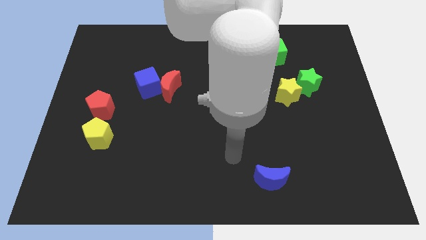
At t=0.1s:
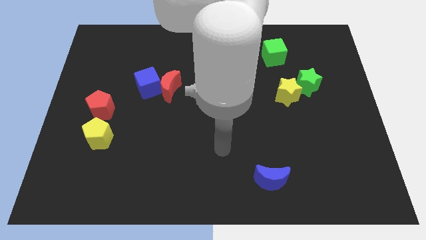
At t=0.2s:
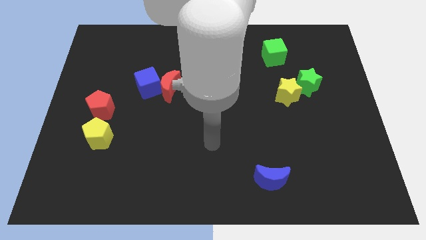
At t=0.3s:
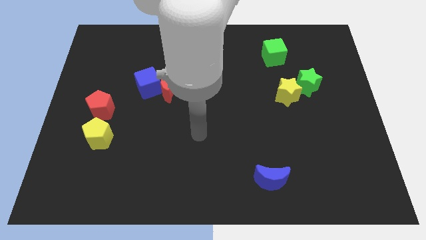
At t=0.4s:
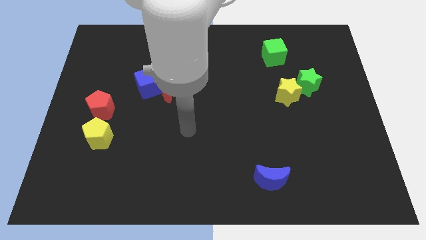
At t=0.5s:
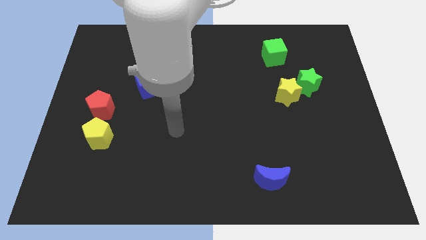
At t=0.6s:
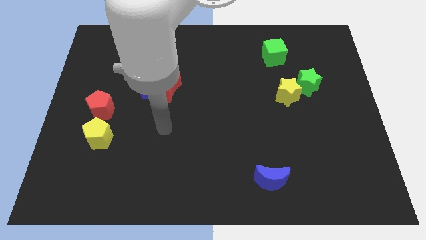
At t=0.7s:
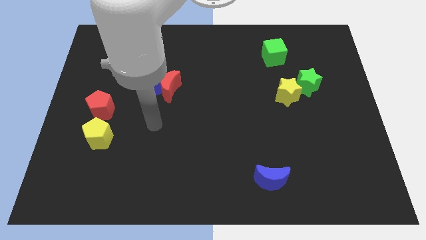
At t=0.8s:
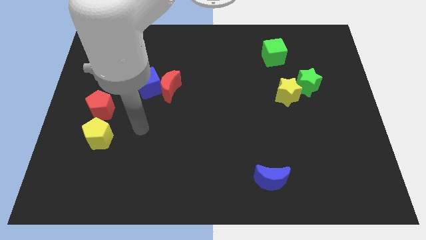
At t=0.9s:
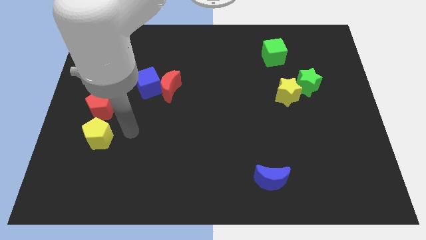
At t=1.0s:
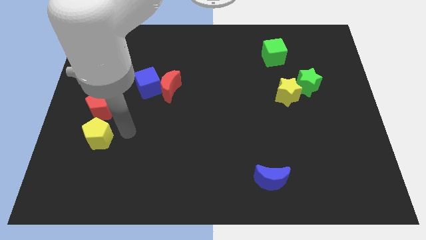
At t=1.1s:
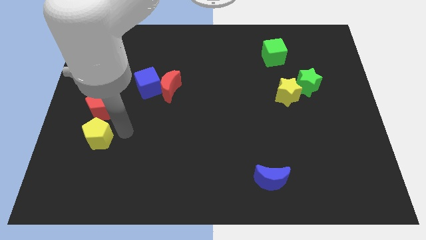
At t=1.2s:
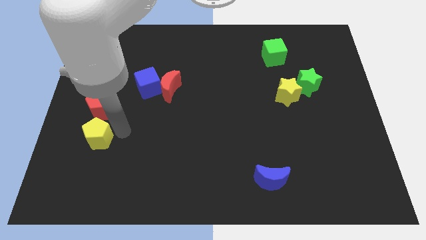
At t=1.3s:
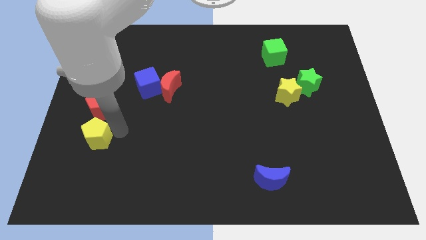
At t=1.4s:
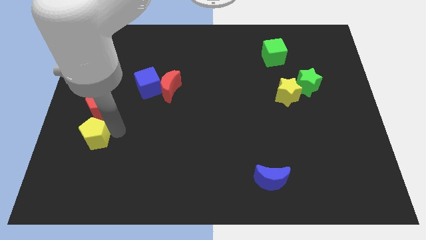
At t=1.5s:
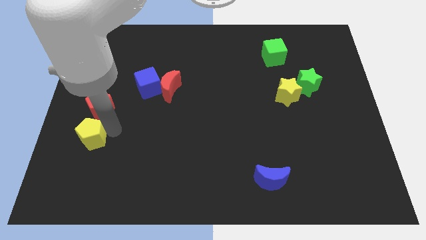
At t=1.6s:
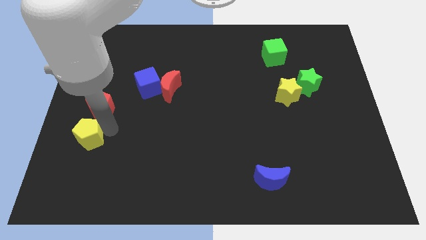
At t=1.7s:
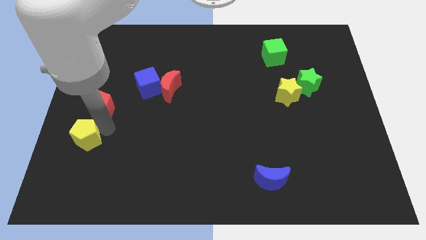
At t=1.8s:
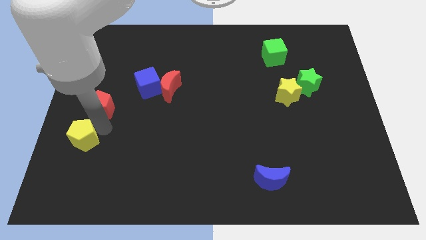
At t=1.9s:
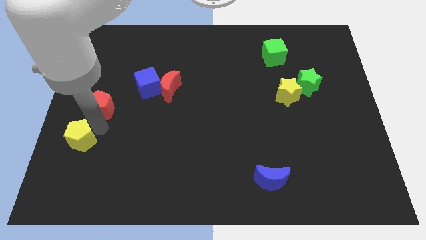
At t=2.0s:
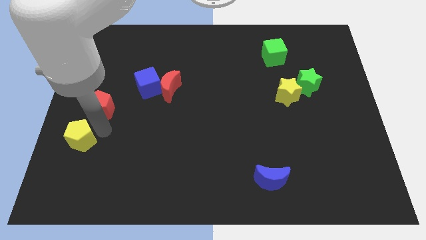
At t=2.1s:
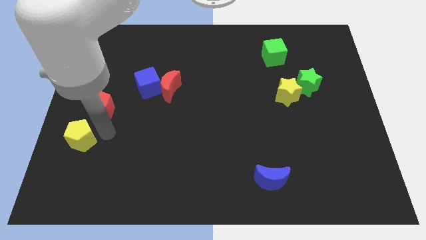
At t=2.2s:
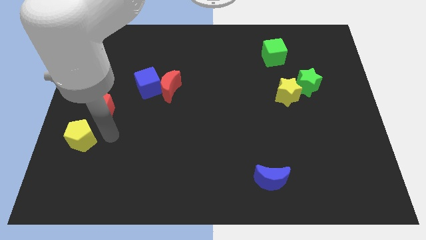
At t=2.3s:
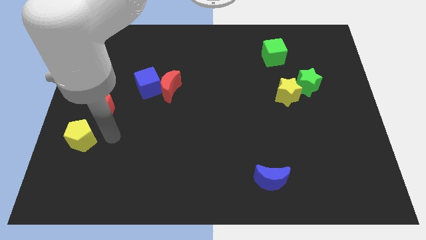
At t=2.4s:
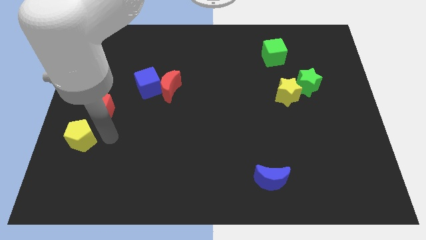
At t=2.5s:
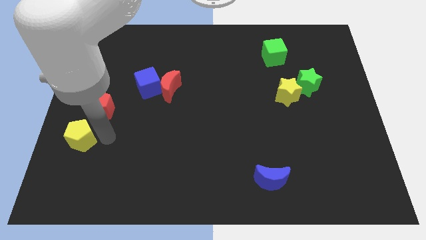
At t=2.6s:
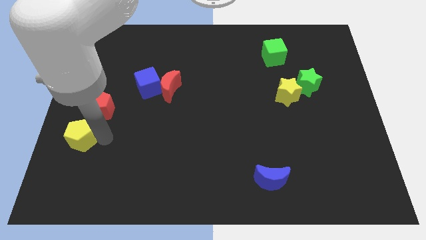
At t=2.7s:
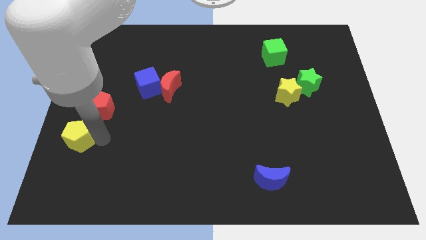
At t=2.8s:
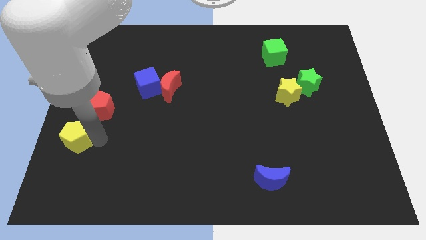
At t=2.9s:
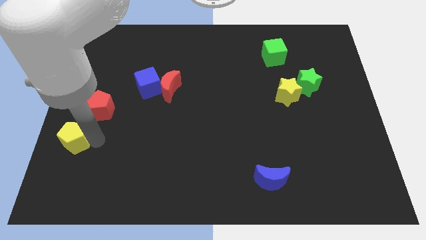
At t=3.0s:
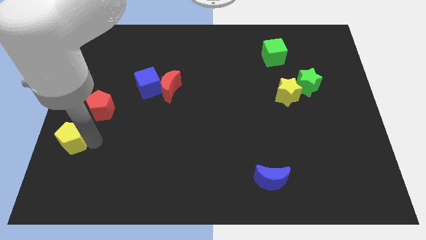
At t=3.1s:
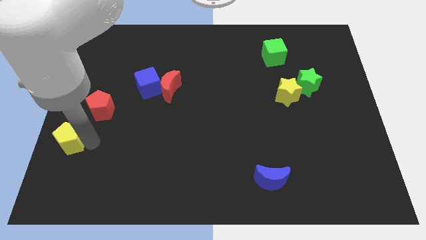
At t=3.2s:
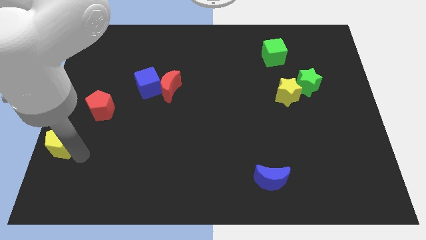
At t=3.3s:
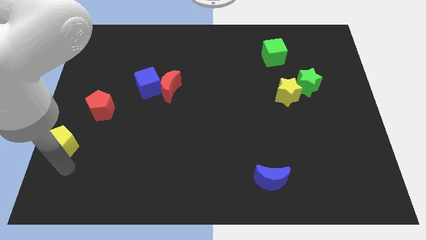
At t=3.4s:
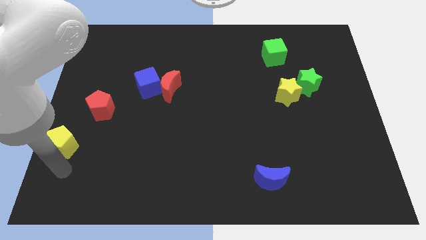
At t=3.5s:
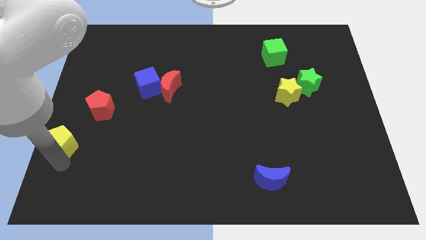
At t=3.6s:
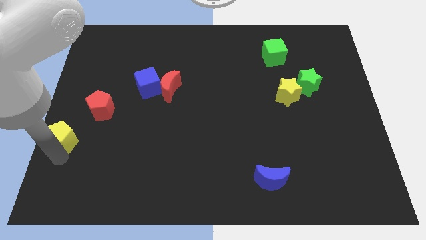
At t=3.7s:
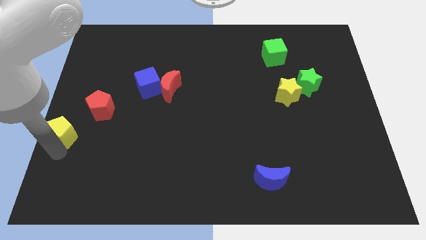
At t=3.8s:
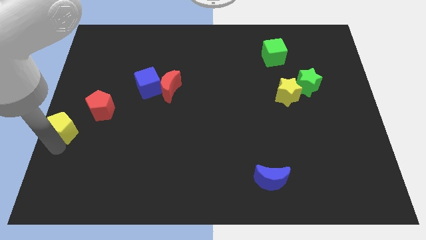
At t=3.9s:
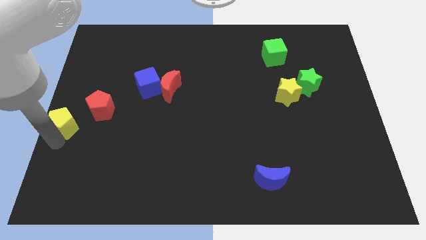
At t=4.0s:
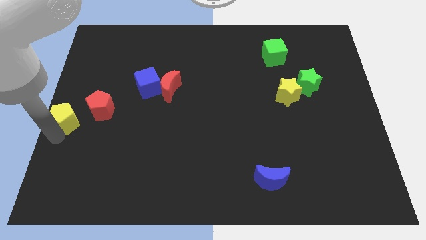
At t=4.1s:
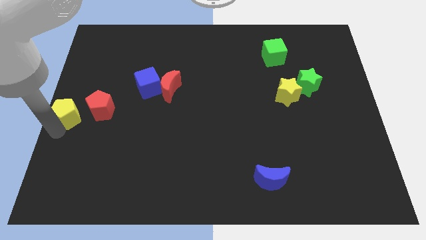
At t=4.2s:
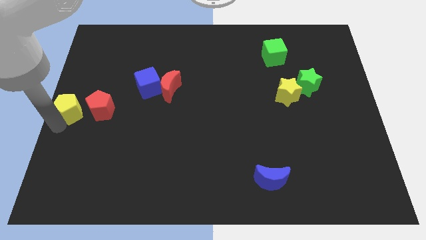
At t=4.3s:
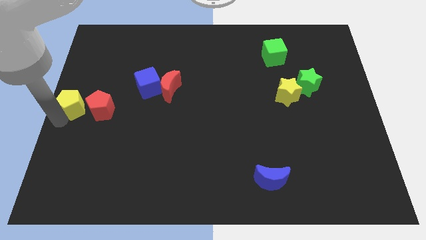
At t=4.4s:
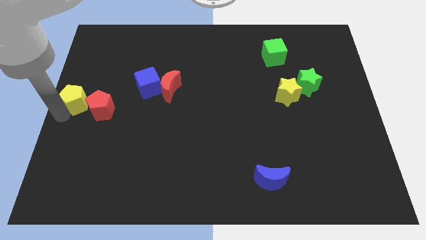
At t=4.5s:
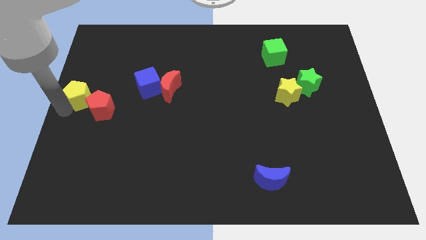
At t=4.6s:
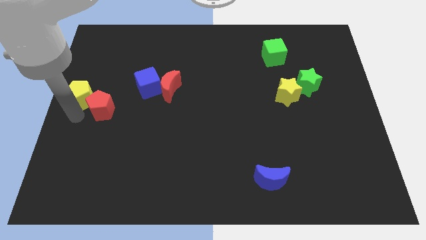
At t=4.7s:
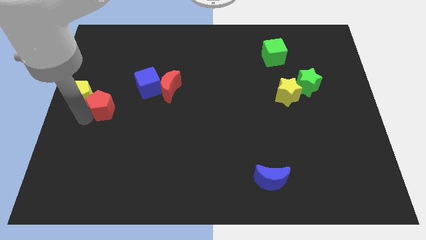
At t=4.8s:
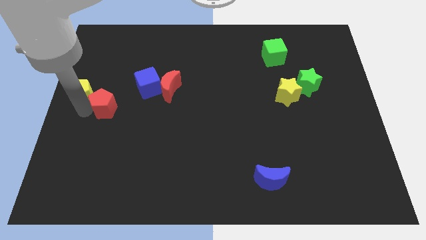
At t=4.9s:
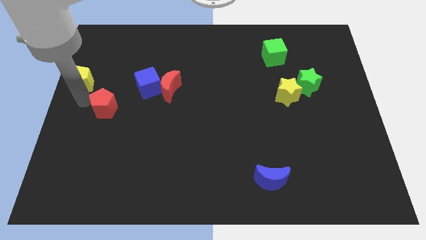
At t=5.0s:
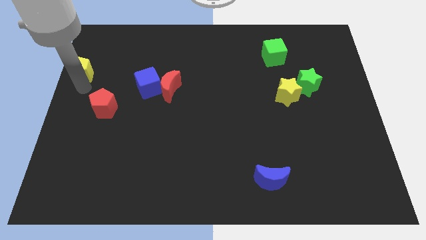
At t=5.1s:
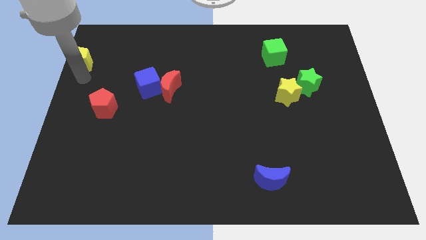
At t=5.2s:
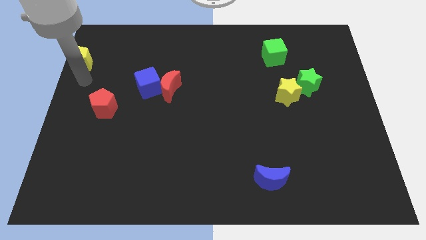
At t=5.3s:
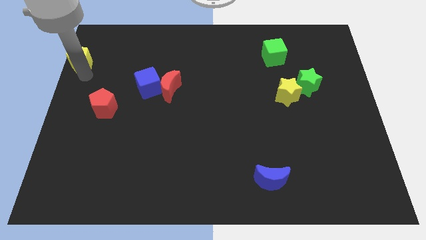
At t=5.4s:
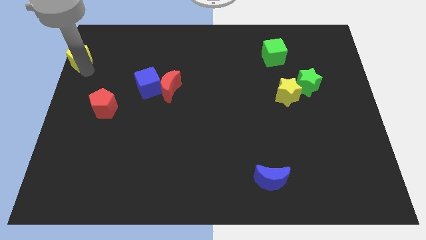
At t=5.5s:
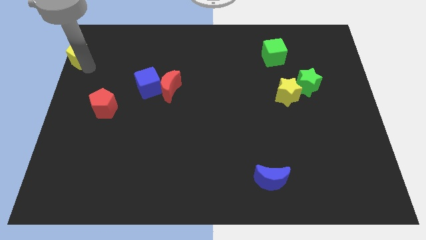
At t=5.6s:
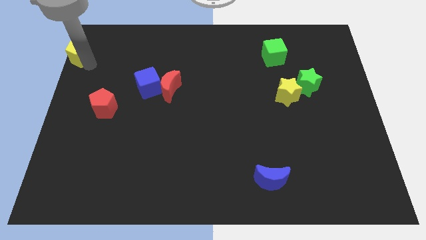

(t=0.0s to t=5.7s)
slide the yellow pentagon to the top left corner
